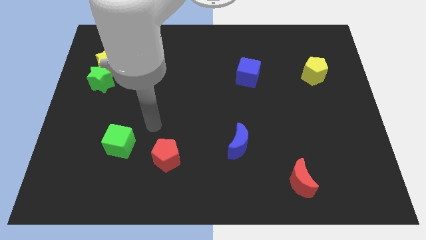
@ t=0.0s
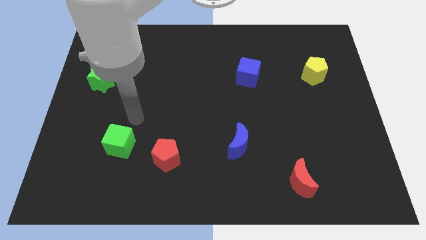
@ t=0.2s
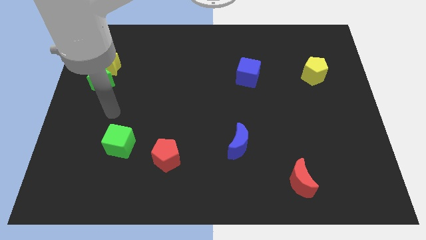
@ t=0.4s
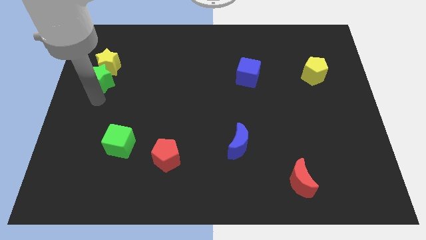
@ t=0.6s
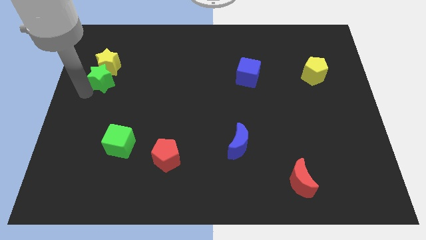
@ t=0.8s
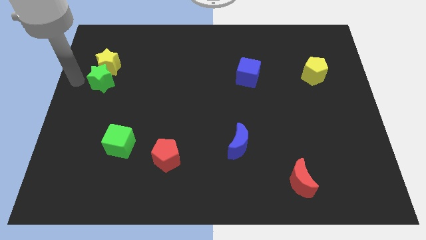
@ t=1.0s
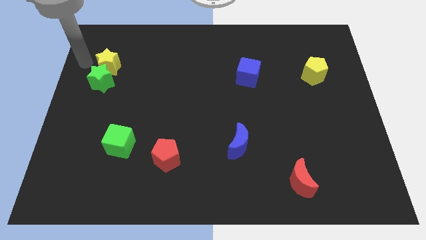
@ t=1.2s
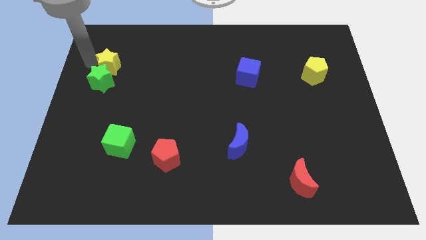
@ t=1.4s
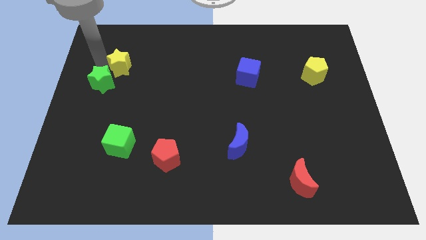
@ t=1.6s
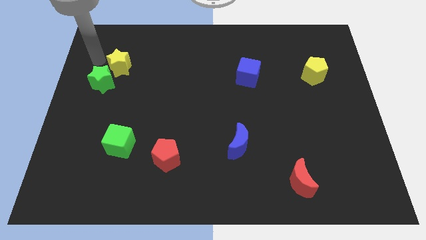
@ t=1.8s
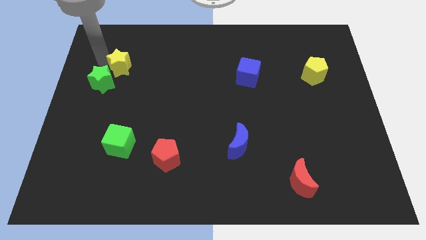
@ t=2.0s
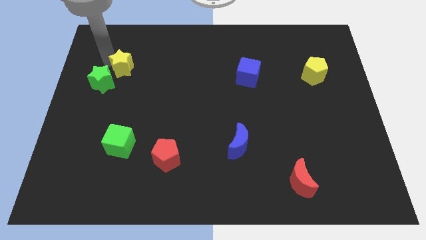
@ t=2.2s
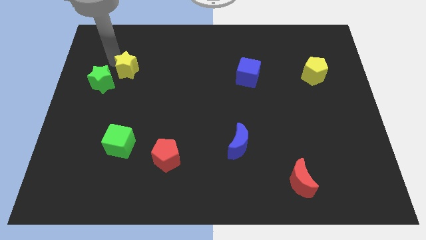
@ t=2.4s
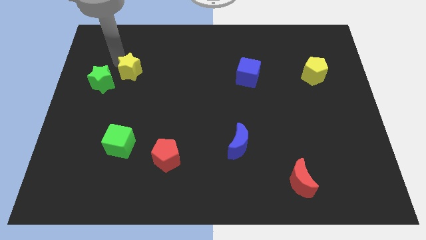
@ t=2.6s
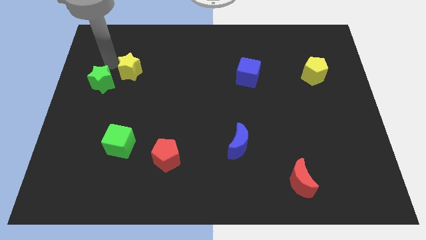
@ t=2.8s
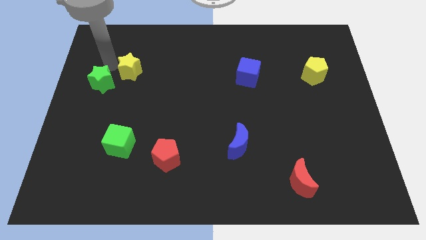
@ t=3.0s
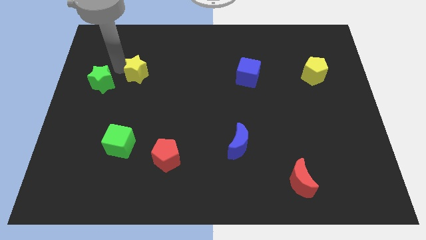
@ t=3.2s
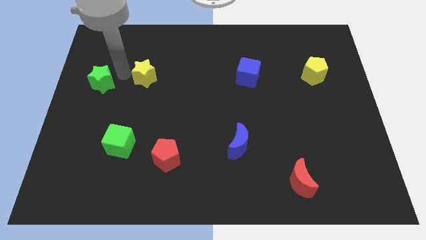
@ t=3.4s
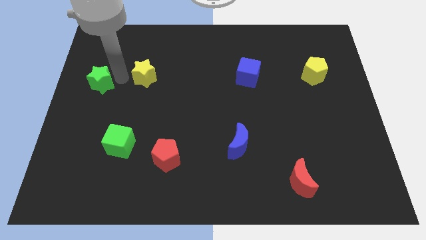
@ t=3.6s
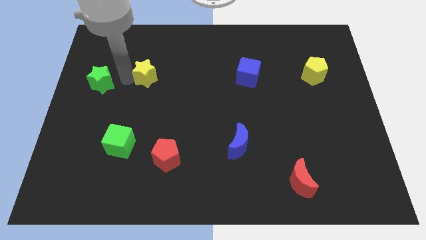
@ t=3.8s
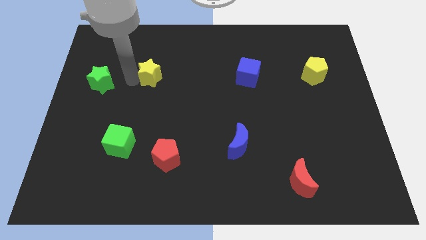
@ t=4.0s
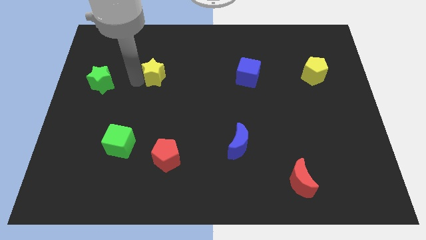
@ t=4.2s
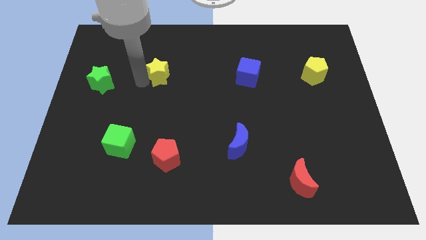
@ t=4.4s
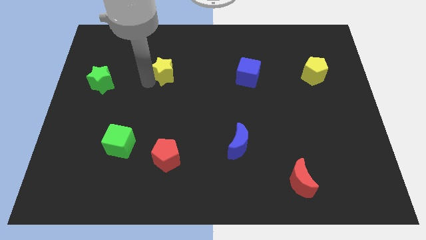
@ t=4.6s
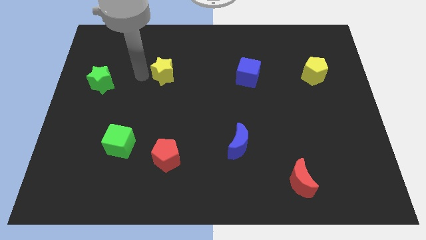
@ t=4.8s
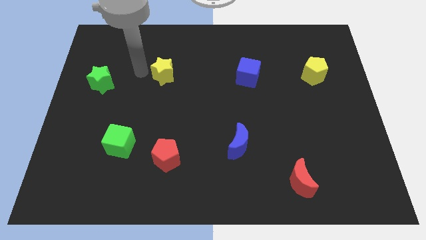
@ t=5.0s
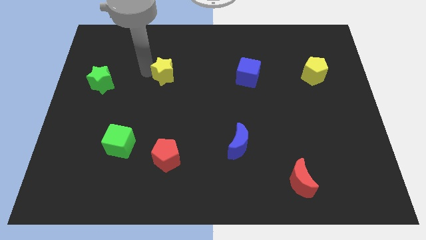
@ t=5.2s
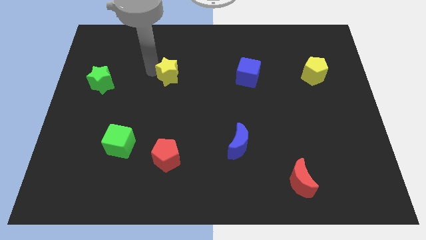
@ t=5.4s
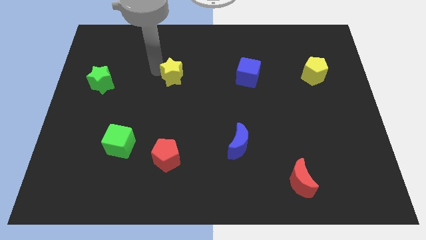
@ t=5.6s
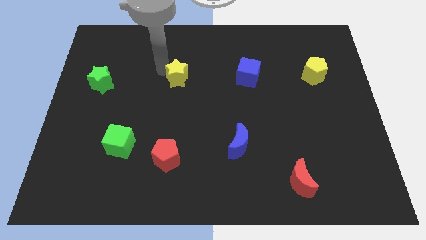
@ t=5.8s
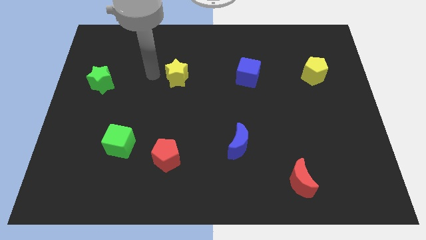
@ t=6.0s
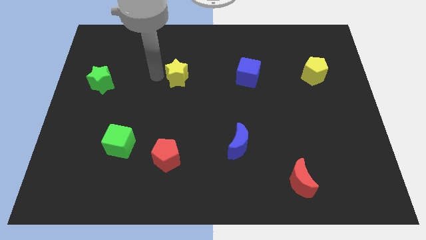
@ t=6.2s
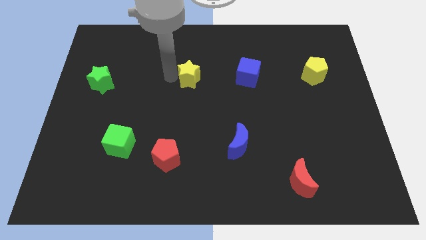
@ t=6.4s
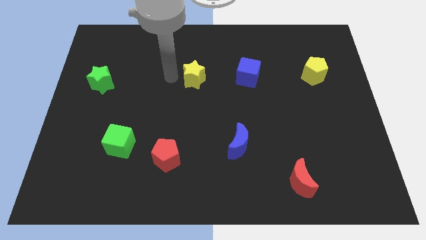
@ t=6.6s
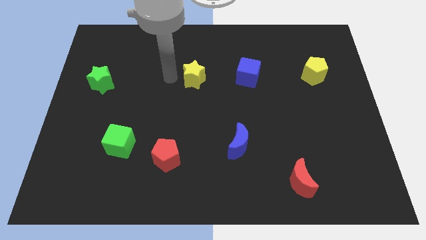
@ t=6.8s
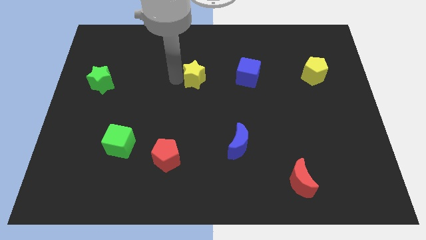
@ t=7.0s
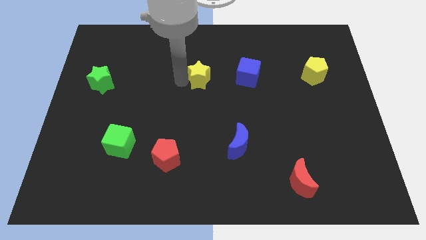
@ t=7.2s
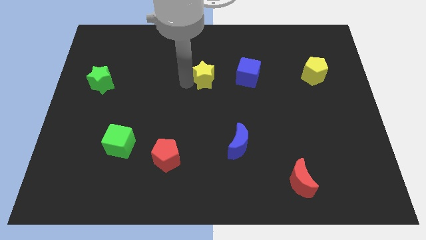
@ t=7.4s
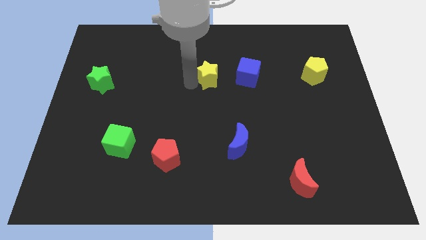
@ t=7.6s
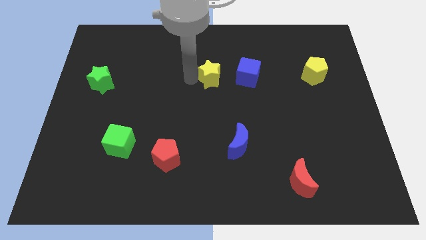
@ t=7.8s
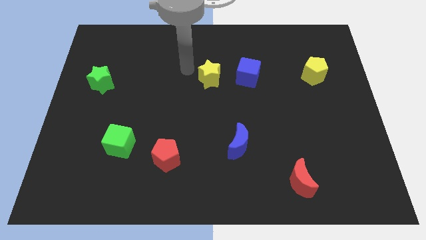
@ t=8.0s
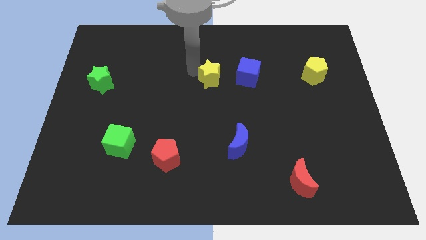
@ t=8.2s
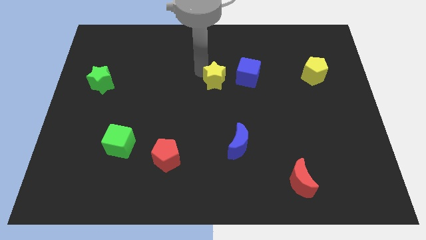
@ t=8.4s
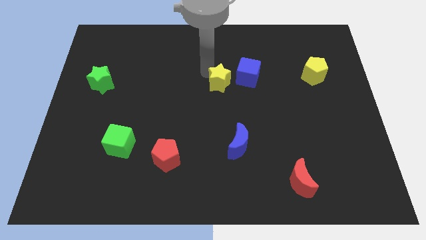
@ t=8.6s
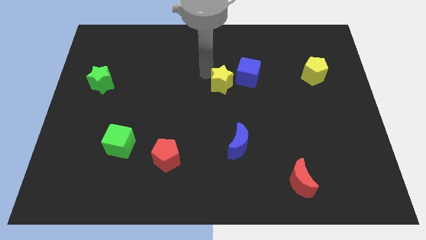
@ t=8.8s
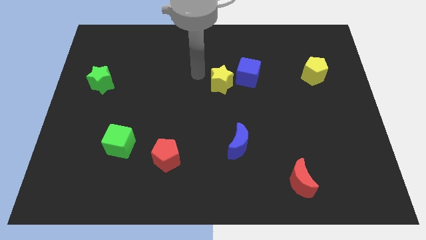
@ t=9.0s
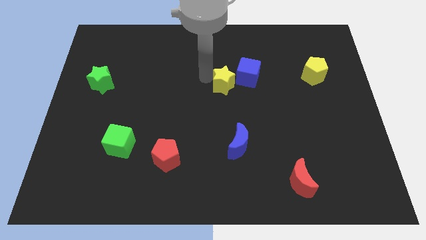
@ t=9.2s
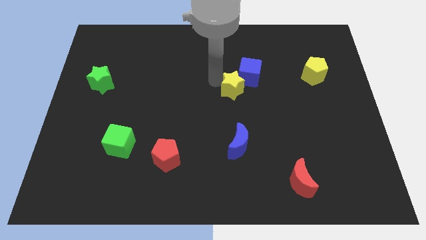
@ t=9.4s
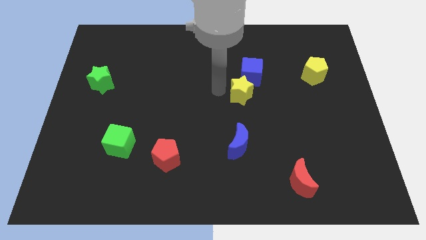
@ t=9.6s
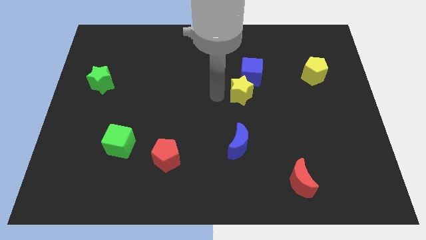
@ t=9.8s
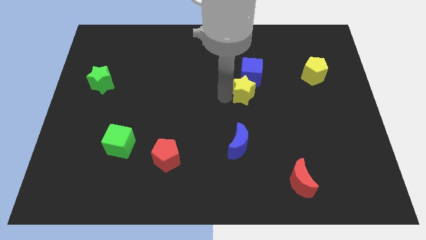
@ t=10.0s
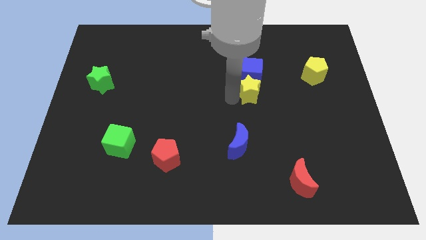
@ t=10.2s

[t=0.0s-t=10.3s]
push the yellow star diagonally down and to the right of the blue cube

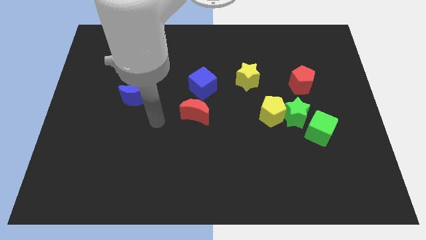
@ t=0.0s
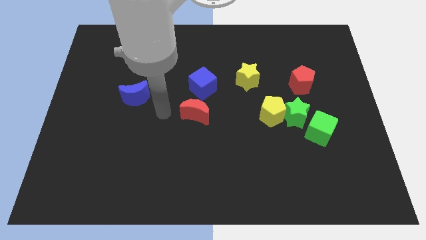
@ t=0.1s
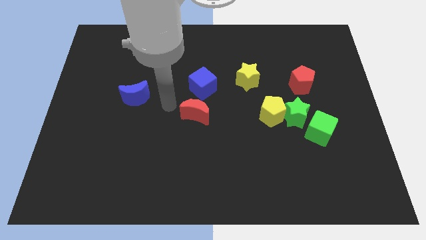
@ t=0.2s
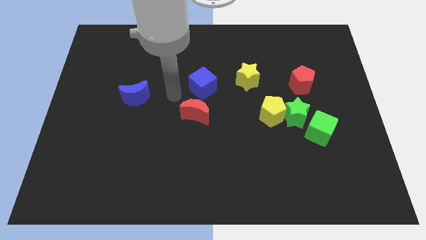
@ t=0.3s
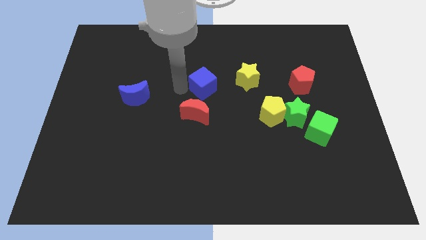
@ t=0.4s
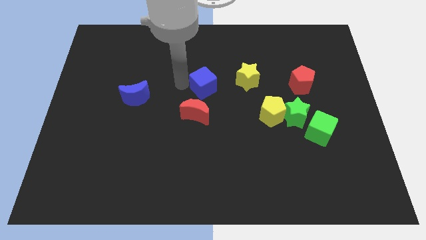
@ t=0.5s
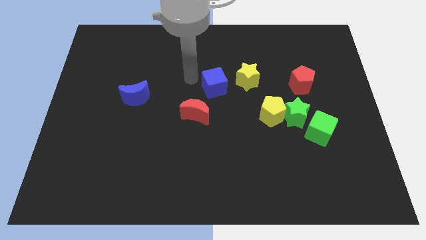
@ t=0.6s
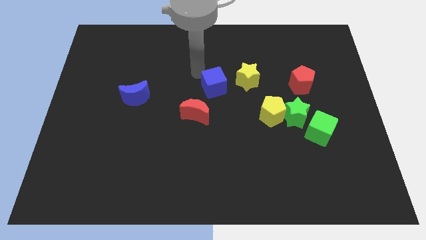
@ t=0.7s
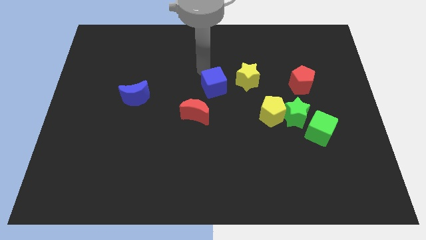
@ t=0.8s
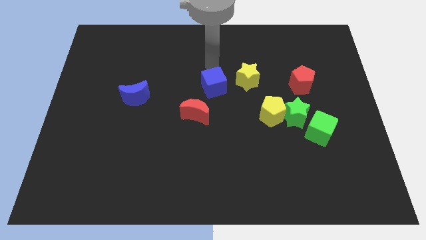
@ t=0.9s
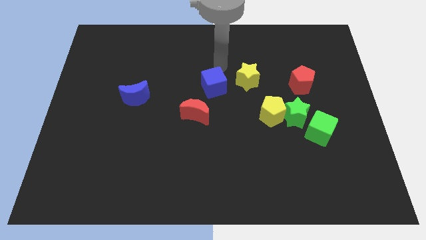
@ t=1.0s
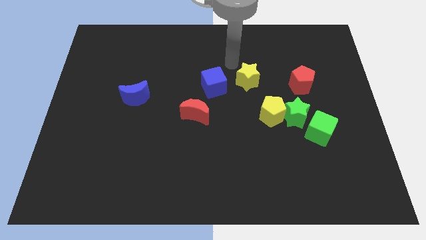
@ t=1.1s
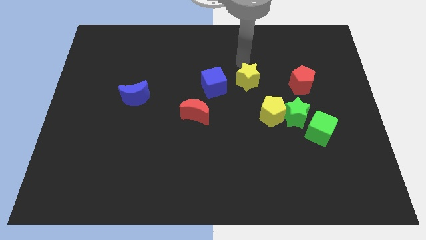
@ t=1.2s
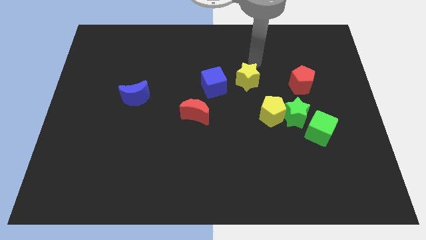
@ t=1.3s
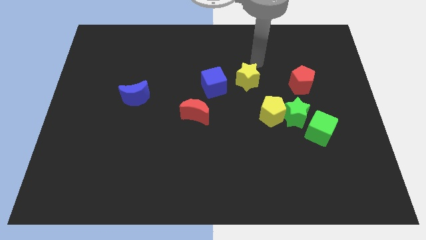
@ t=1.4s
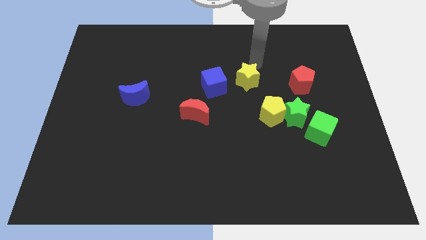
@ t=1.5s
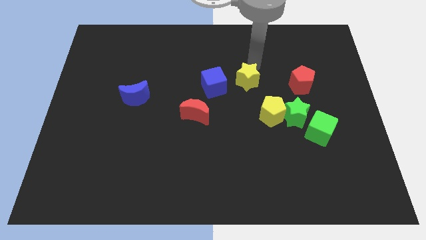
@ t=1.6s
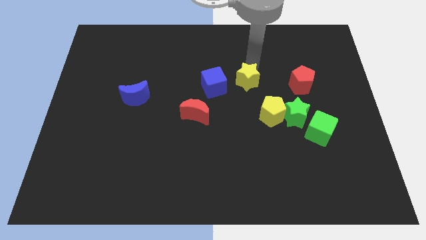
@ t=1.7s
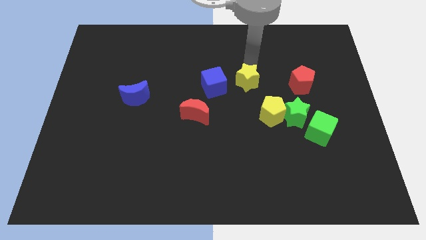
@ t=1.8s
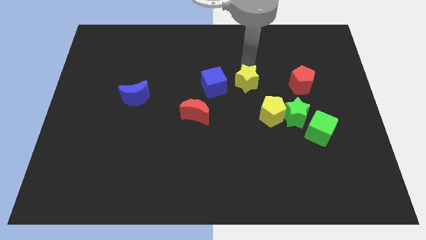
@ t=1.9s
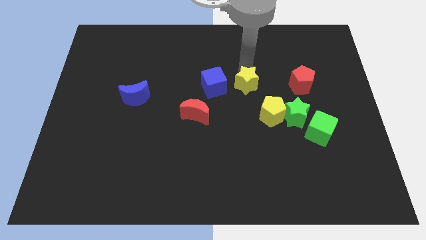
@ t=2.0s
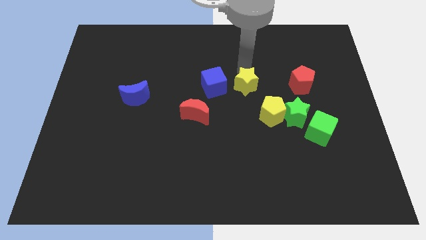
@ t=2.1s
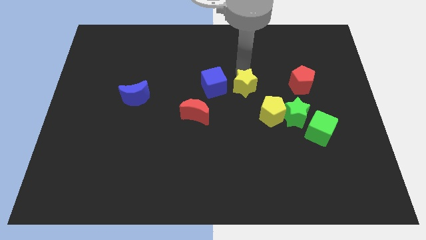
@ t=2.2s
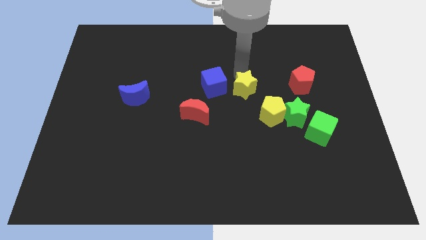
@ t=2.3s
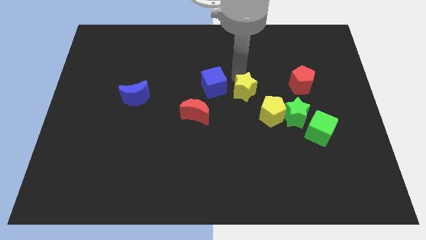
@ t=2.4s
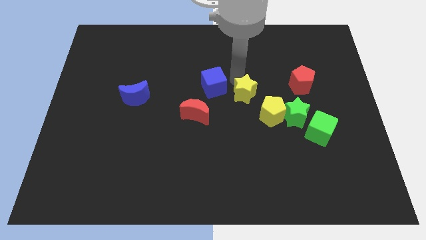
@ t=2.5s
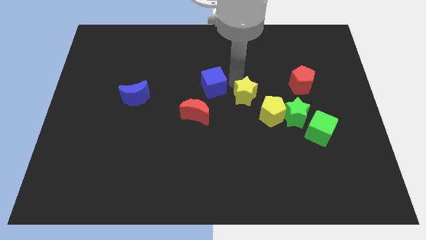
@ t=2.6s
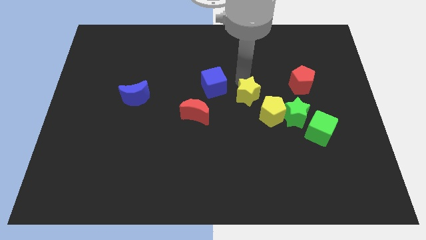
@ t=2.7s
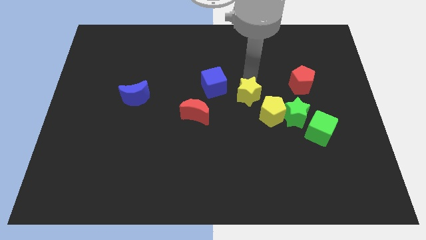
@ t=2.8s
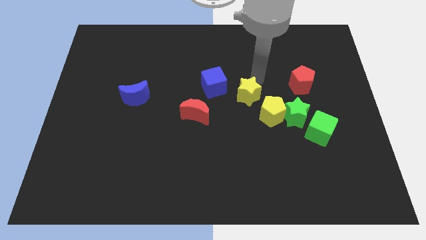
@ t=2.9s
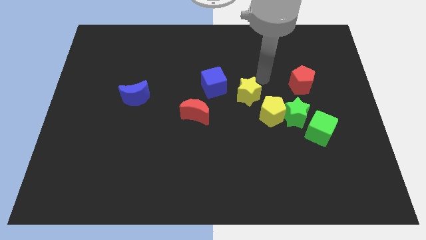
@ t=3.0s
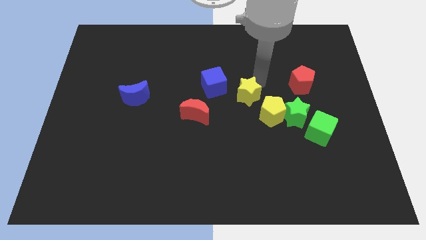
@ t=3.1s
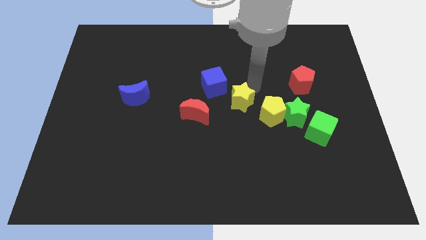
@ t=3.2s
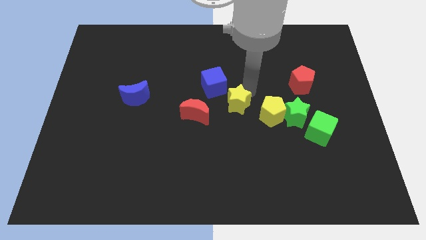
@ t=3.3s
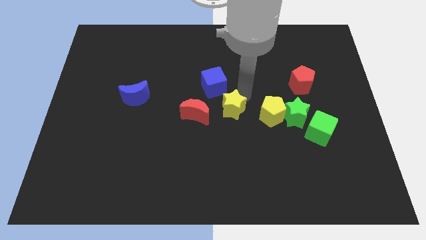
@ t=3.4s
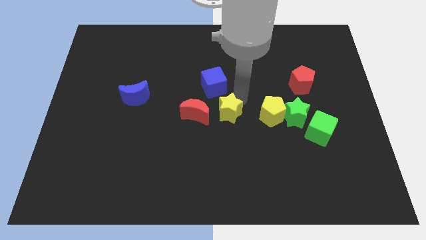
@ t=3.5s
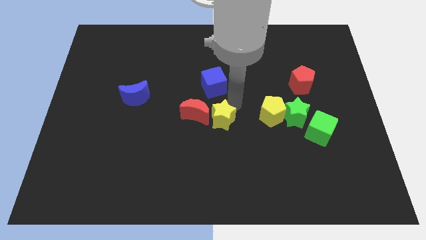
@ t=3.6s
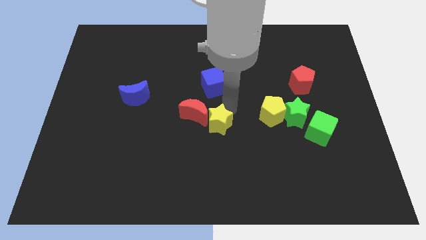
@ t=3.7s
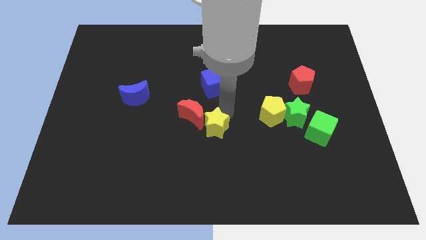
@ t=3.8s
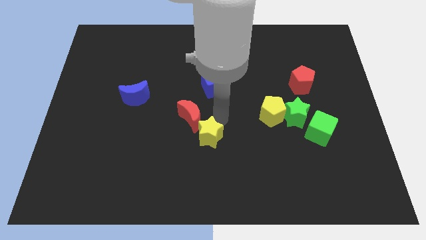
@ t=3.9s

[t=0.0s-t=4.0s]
slide the yellow star to the bottom side of the red moon
